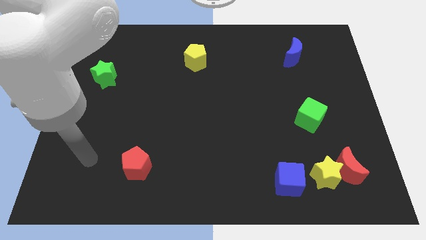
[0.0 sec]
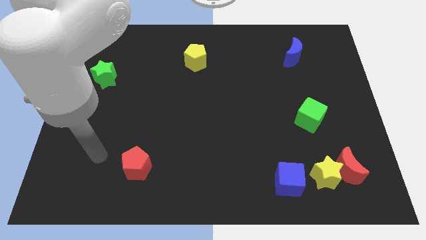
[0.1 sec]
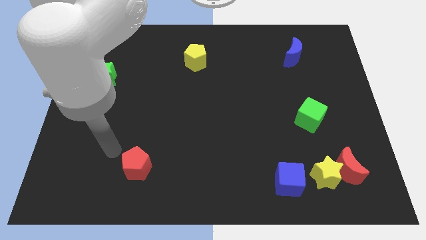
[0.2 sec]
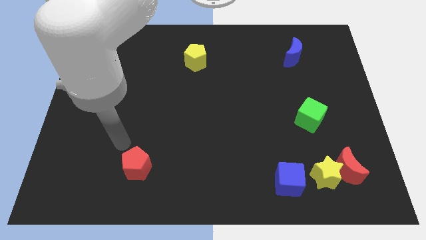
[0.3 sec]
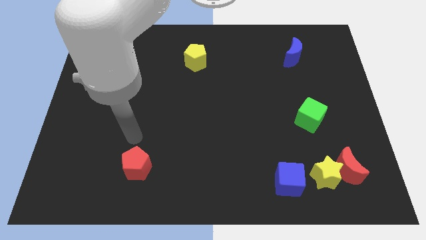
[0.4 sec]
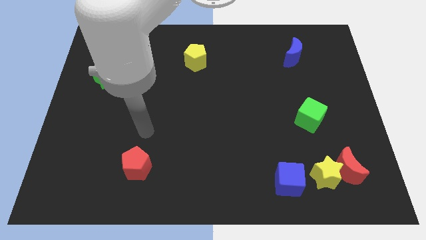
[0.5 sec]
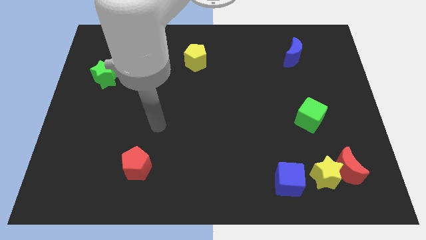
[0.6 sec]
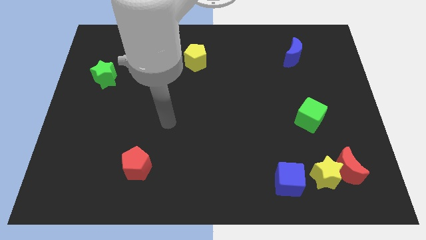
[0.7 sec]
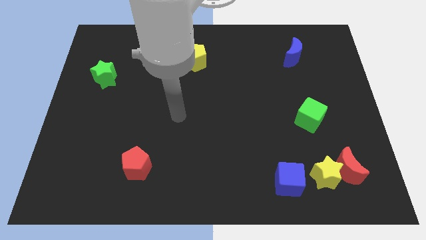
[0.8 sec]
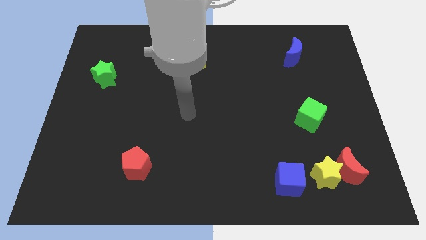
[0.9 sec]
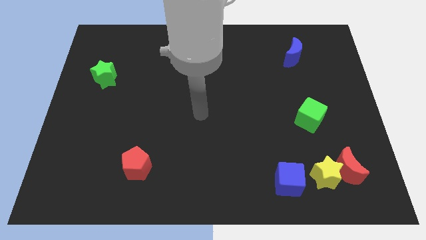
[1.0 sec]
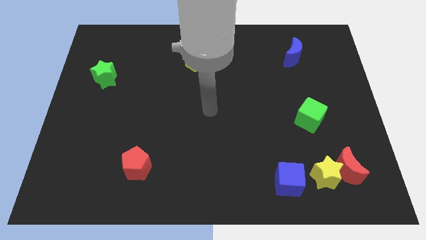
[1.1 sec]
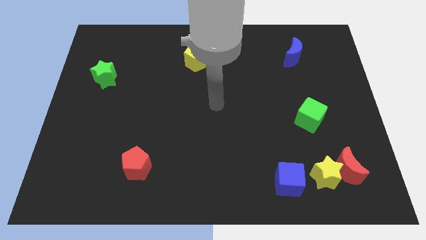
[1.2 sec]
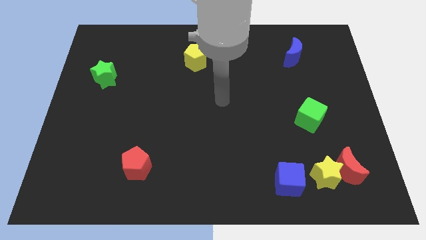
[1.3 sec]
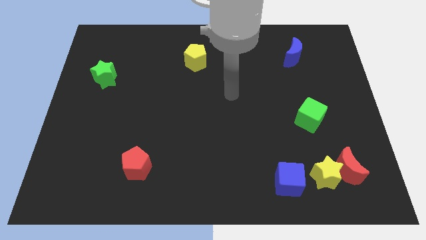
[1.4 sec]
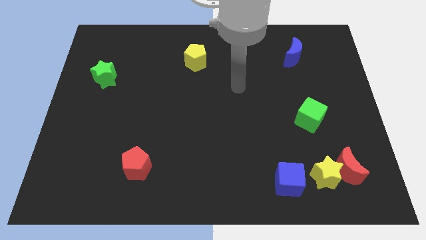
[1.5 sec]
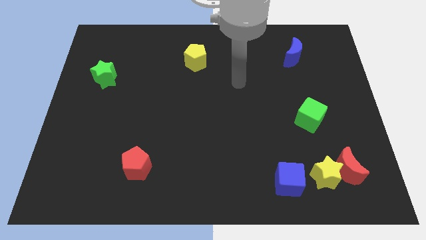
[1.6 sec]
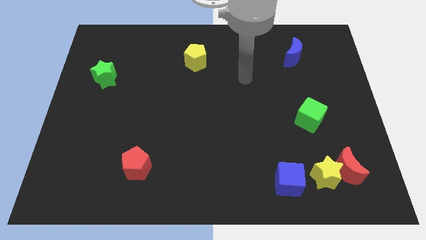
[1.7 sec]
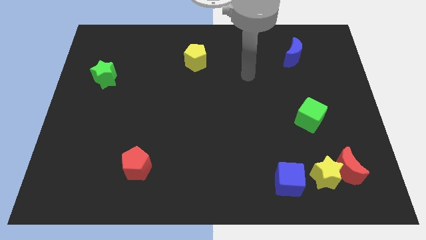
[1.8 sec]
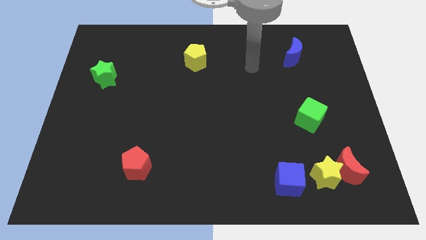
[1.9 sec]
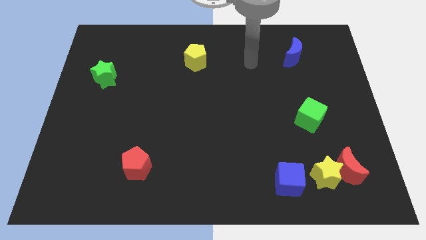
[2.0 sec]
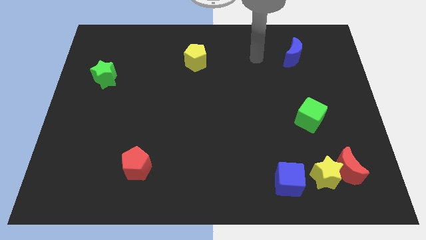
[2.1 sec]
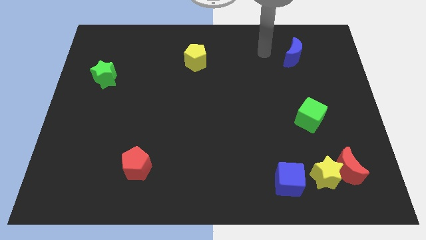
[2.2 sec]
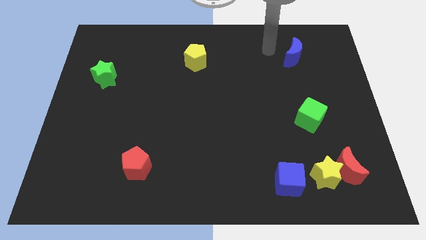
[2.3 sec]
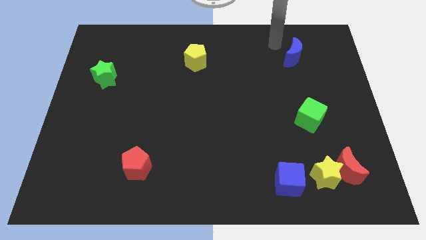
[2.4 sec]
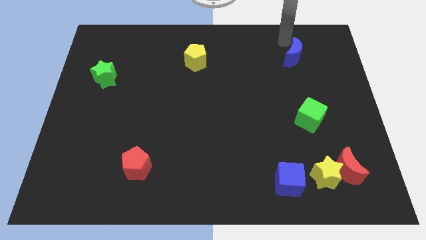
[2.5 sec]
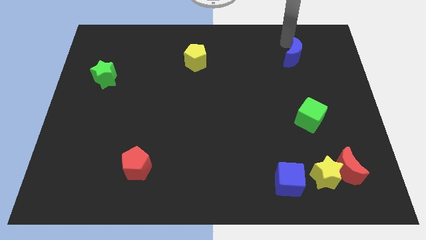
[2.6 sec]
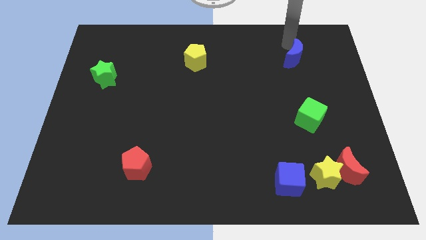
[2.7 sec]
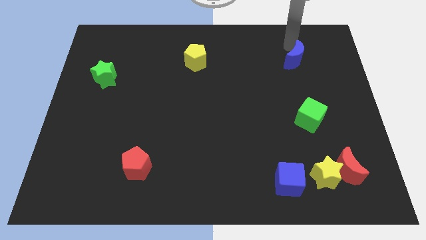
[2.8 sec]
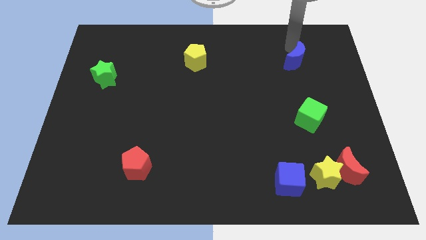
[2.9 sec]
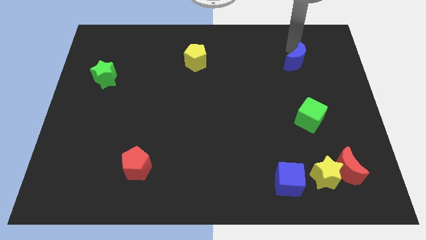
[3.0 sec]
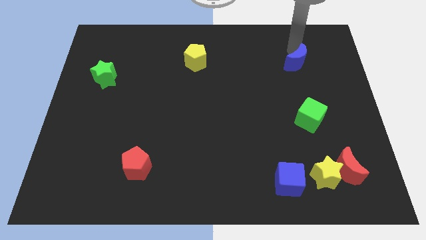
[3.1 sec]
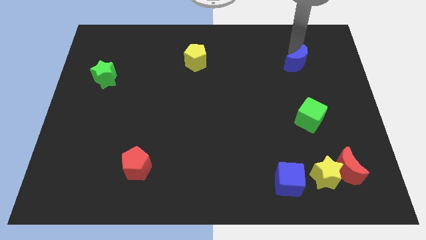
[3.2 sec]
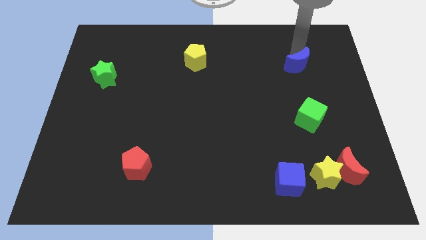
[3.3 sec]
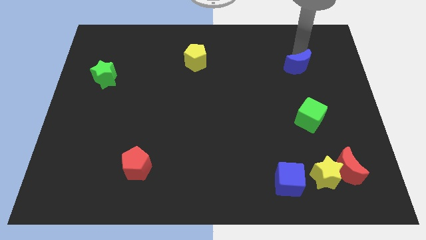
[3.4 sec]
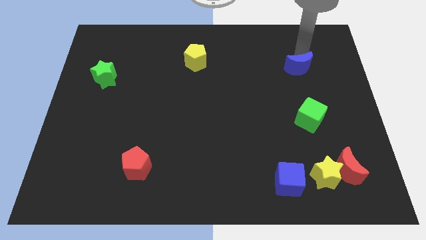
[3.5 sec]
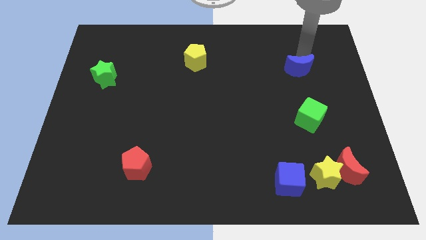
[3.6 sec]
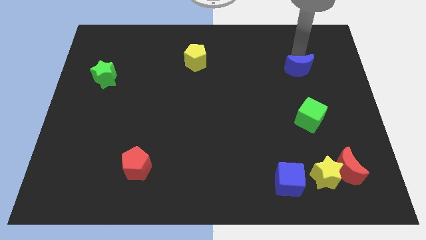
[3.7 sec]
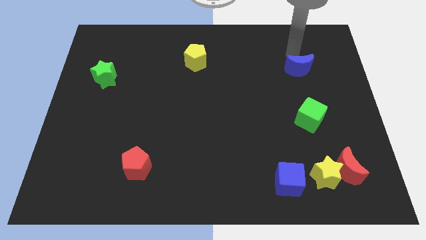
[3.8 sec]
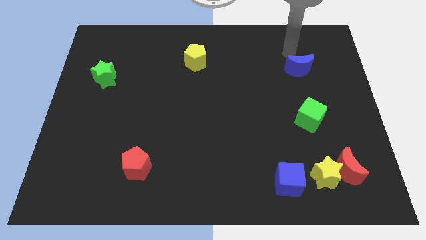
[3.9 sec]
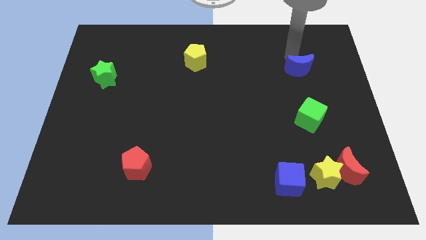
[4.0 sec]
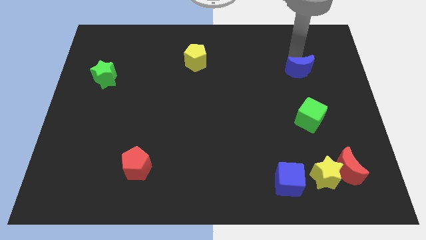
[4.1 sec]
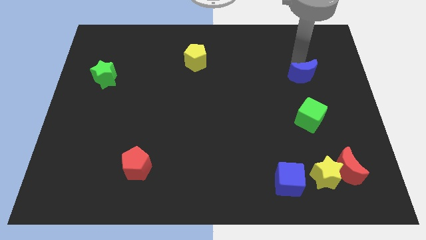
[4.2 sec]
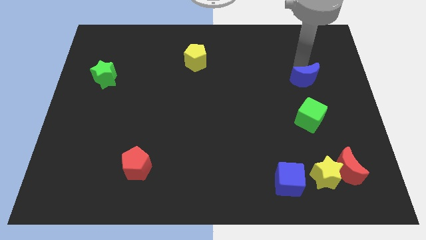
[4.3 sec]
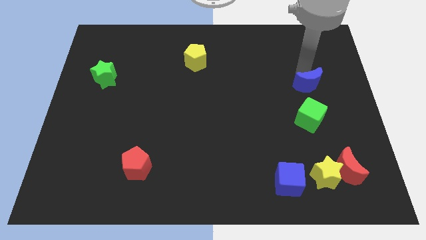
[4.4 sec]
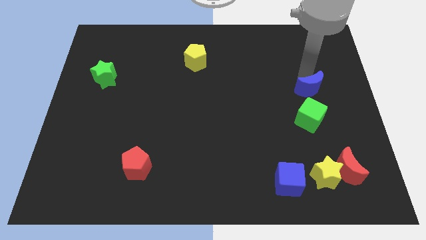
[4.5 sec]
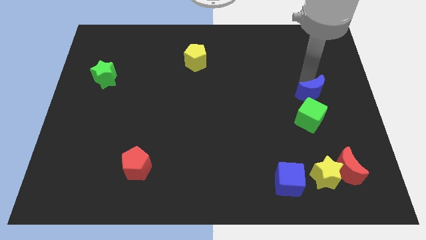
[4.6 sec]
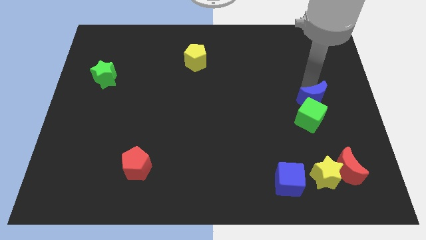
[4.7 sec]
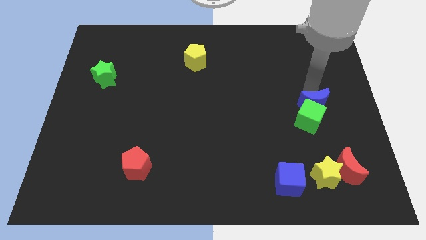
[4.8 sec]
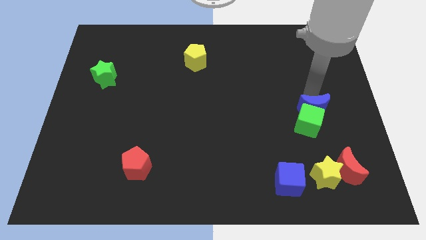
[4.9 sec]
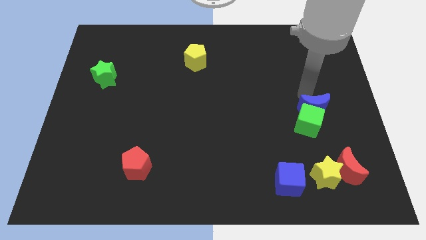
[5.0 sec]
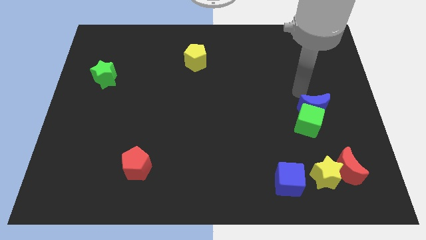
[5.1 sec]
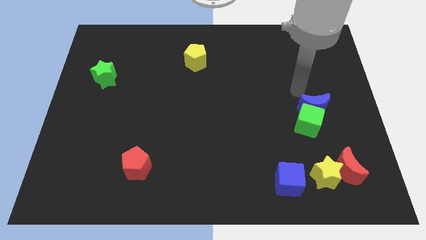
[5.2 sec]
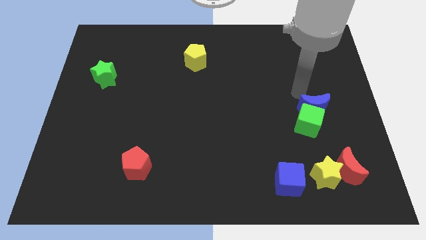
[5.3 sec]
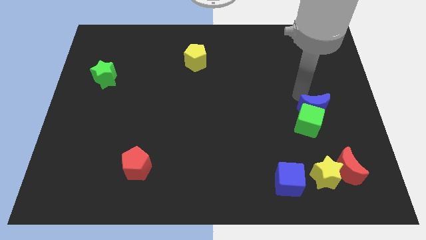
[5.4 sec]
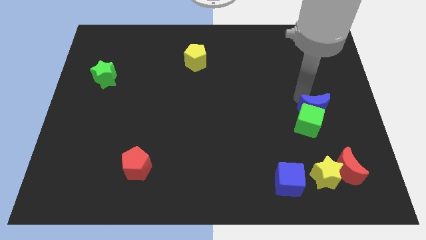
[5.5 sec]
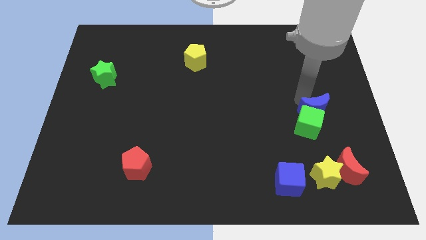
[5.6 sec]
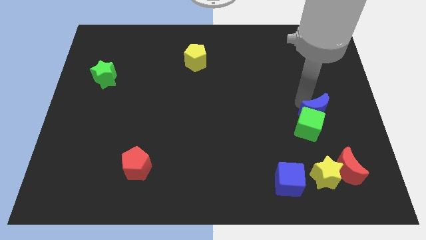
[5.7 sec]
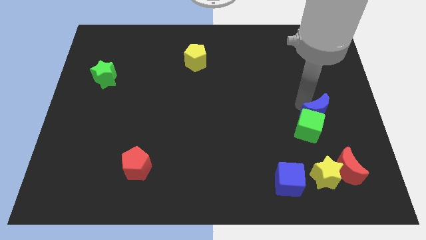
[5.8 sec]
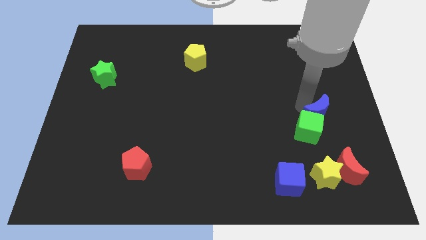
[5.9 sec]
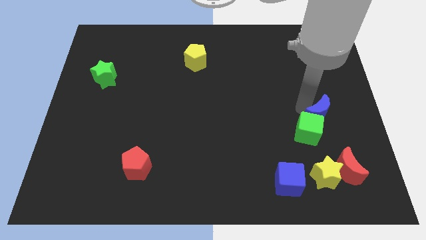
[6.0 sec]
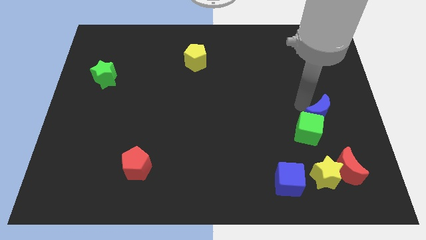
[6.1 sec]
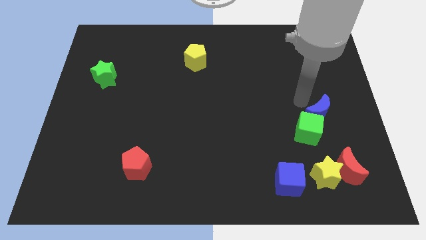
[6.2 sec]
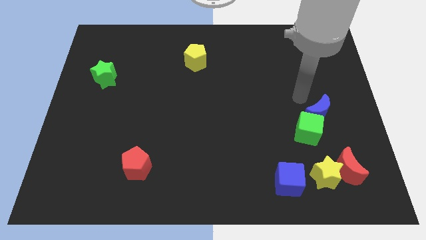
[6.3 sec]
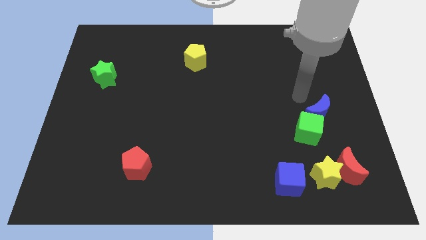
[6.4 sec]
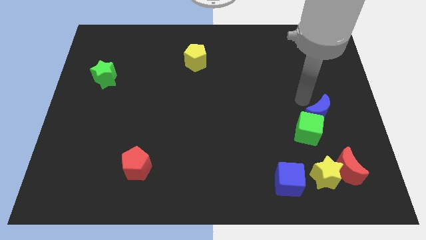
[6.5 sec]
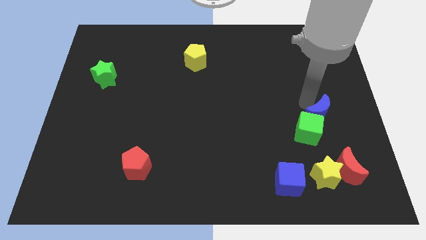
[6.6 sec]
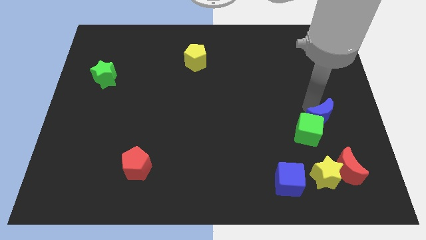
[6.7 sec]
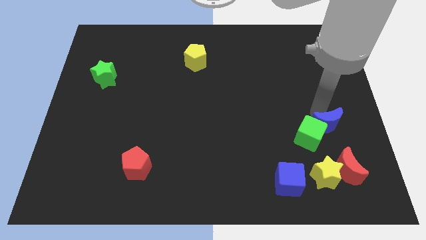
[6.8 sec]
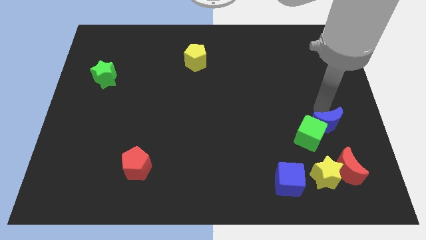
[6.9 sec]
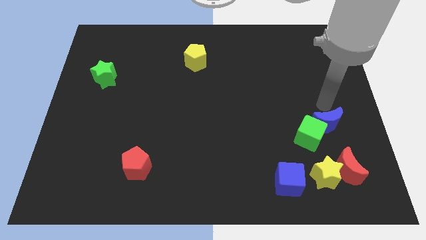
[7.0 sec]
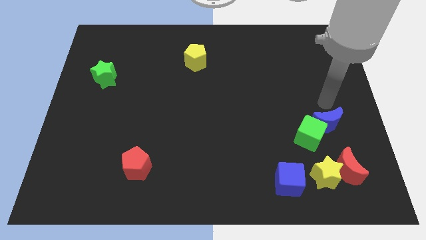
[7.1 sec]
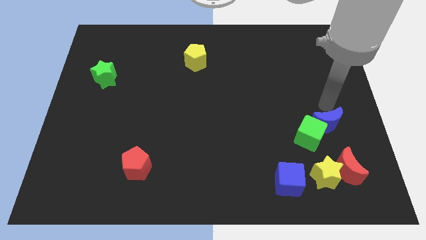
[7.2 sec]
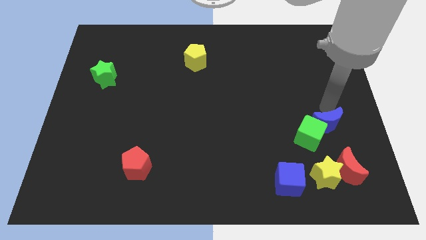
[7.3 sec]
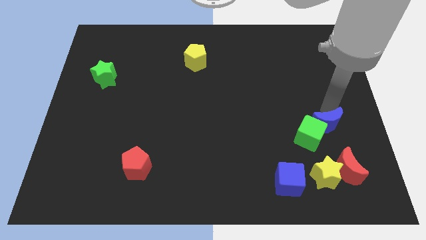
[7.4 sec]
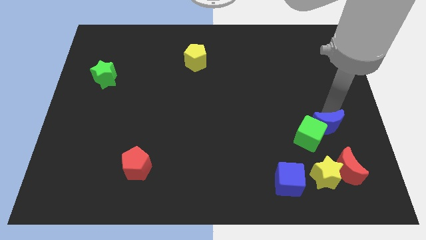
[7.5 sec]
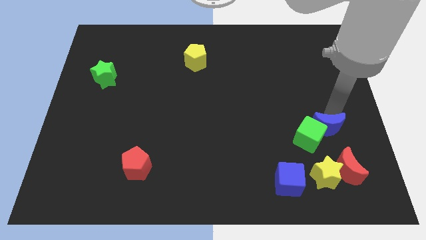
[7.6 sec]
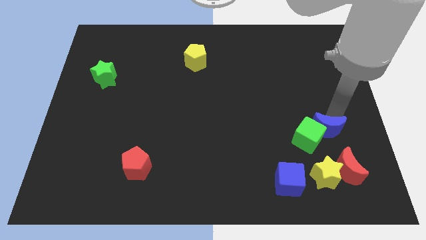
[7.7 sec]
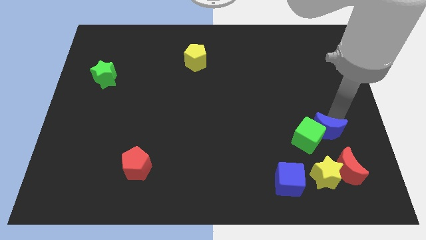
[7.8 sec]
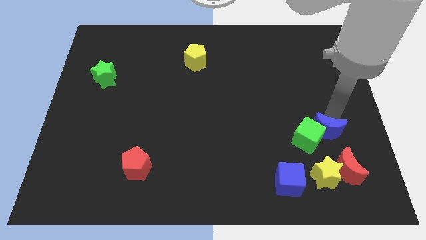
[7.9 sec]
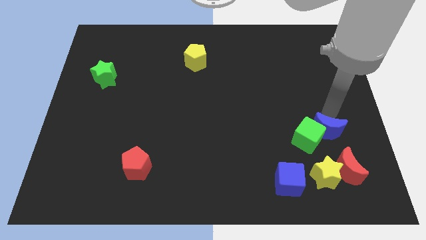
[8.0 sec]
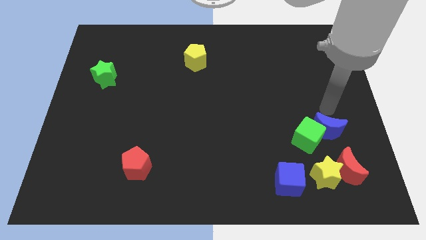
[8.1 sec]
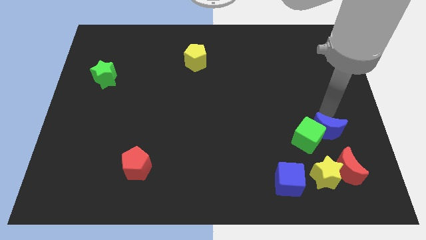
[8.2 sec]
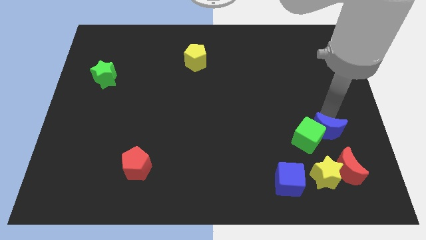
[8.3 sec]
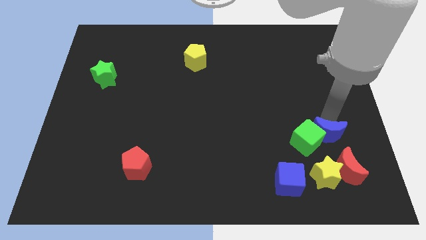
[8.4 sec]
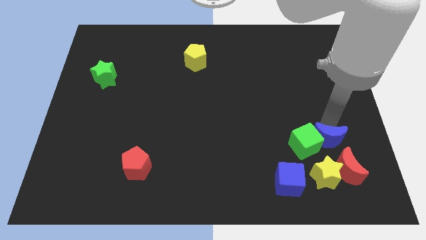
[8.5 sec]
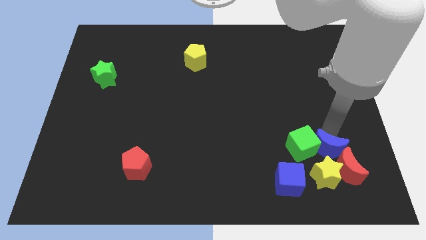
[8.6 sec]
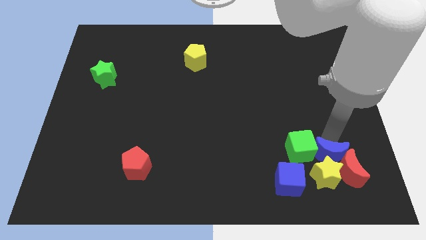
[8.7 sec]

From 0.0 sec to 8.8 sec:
move the blue moon to the yellow star
